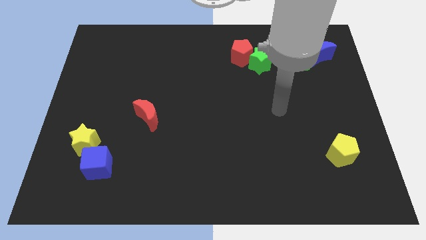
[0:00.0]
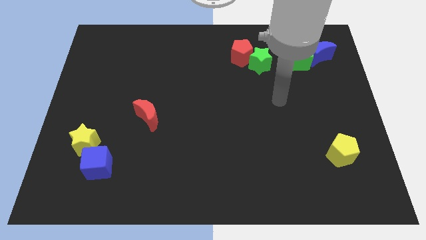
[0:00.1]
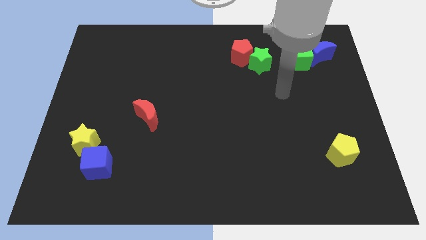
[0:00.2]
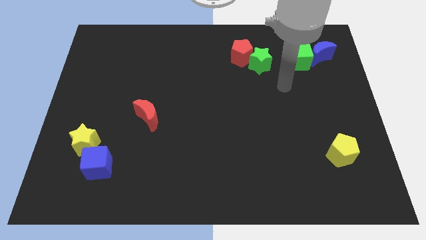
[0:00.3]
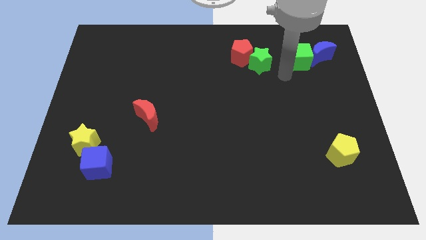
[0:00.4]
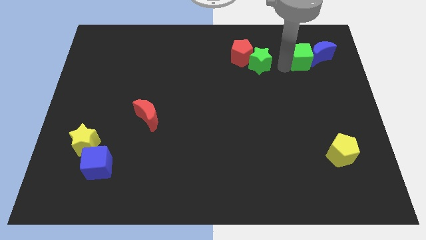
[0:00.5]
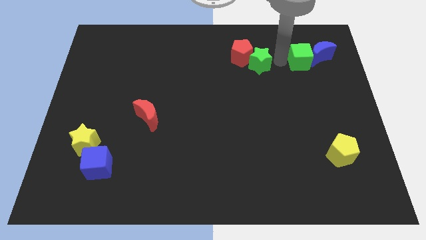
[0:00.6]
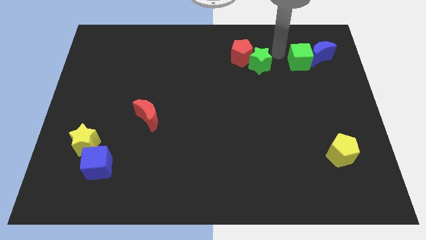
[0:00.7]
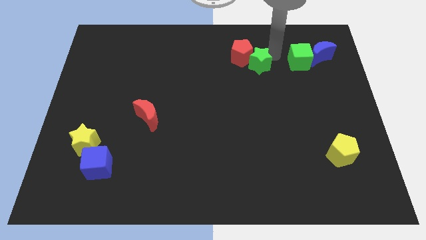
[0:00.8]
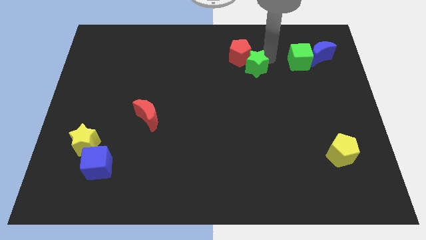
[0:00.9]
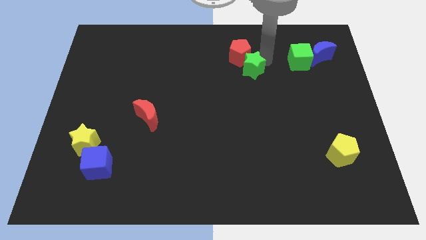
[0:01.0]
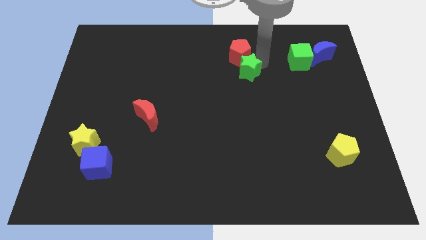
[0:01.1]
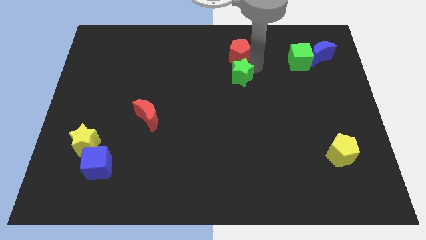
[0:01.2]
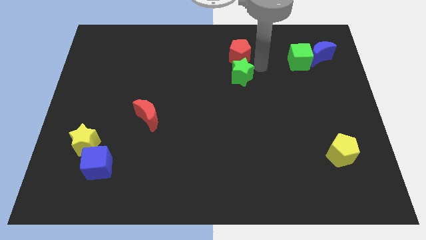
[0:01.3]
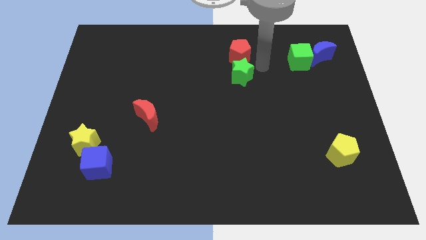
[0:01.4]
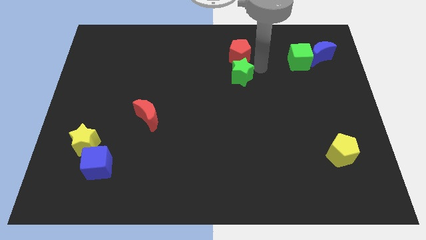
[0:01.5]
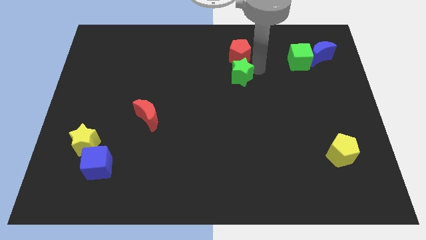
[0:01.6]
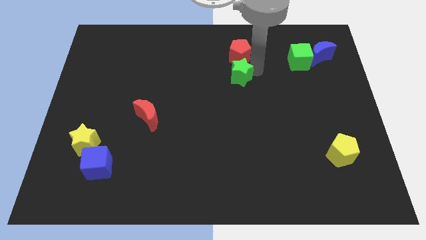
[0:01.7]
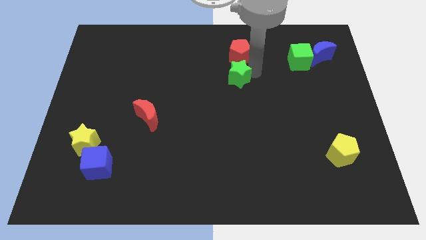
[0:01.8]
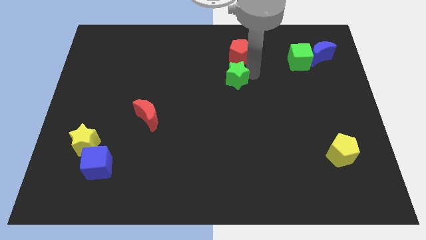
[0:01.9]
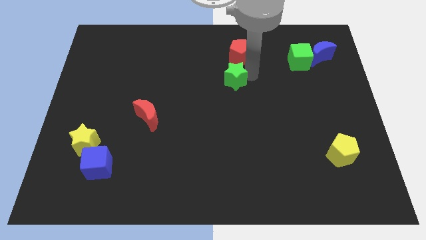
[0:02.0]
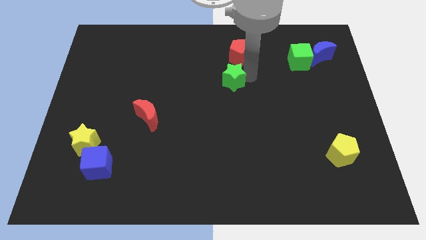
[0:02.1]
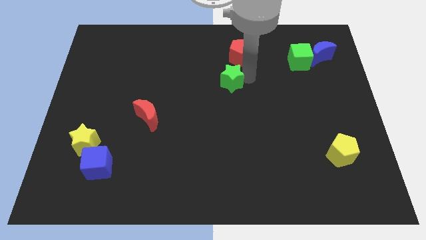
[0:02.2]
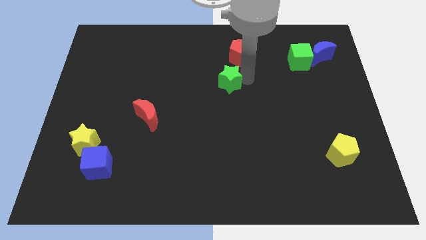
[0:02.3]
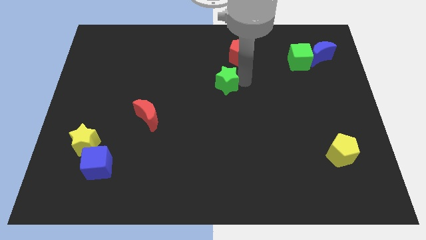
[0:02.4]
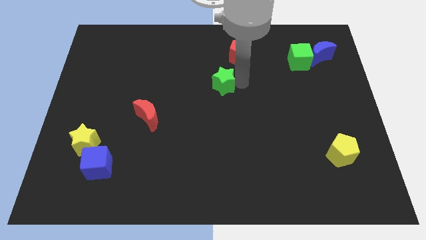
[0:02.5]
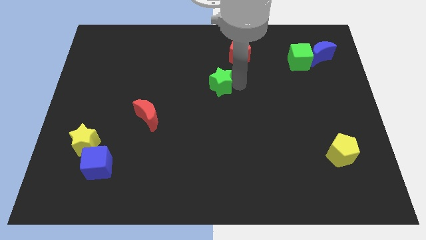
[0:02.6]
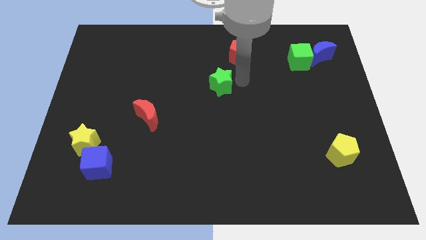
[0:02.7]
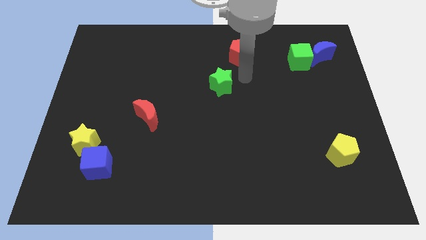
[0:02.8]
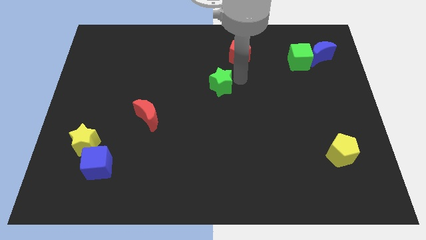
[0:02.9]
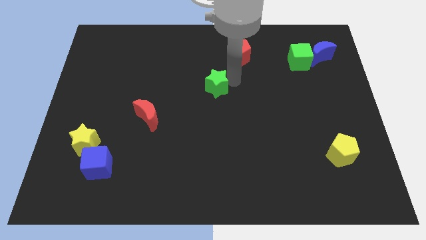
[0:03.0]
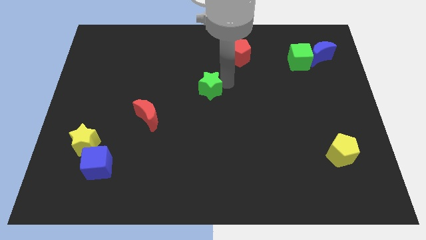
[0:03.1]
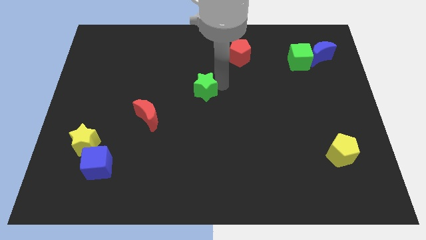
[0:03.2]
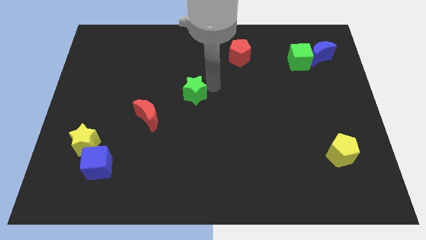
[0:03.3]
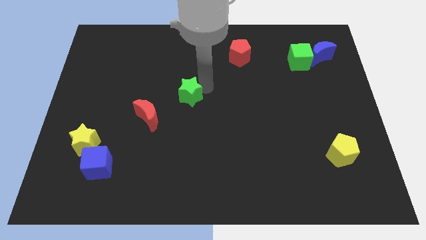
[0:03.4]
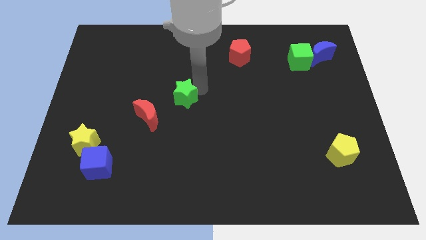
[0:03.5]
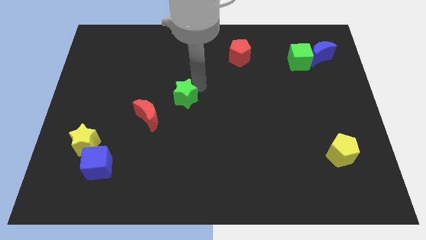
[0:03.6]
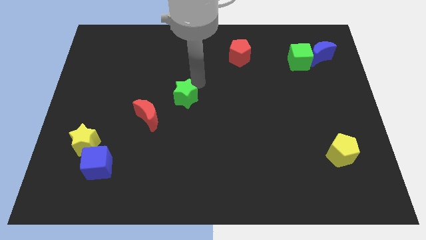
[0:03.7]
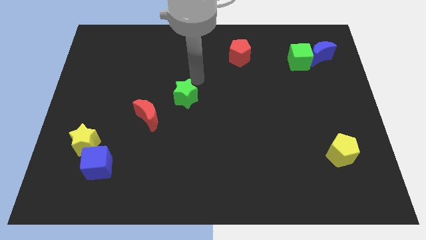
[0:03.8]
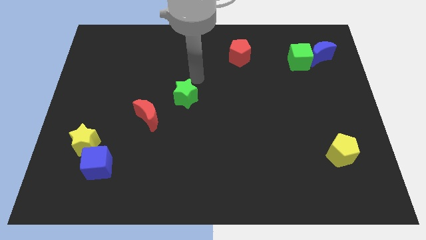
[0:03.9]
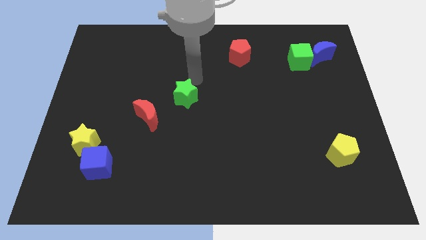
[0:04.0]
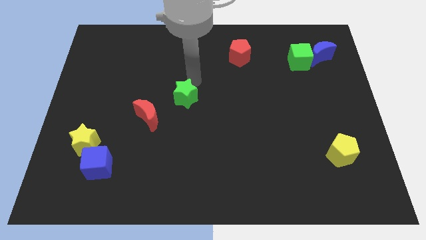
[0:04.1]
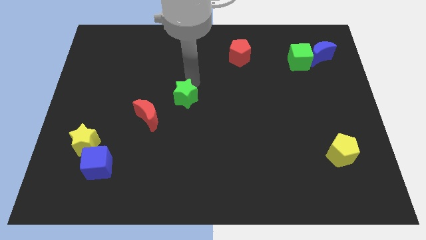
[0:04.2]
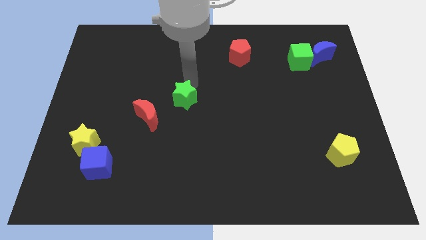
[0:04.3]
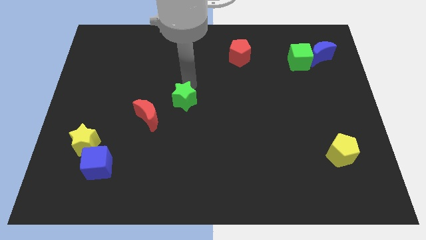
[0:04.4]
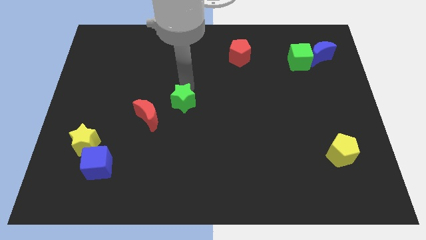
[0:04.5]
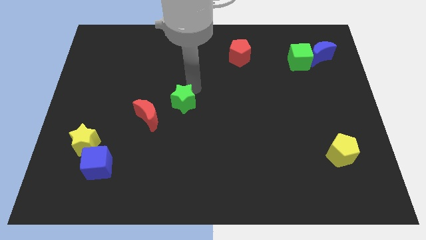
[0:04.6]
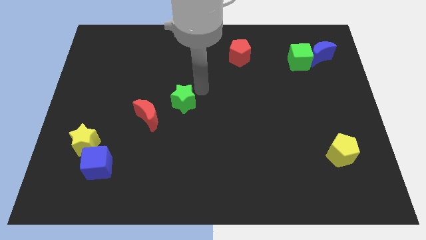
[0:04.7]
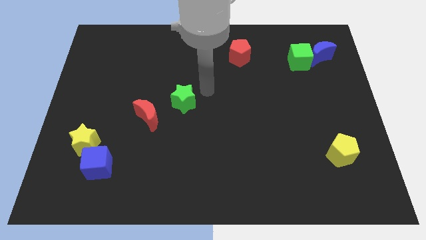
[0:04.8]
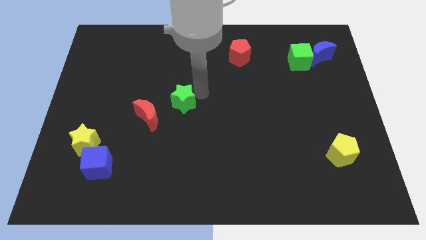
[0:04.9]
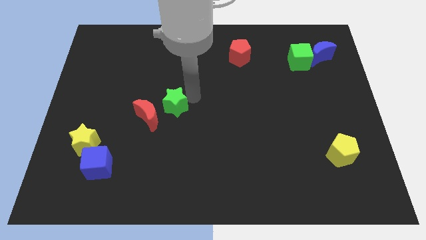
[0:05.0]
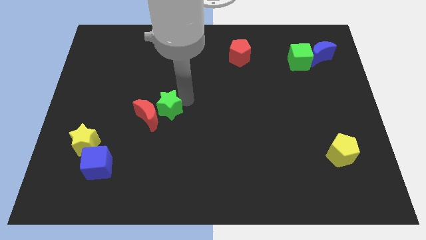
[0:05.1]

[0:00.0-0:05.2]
slide the green star to the red moon

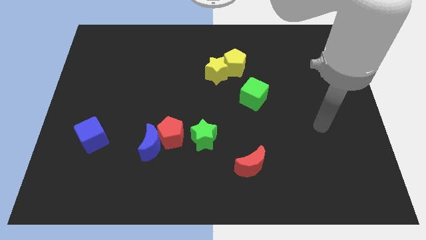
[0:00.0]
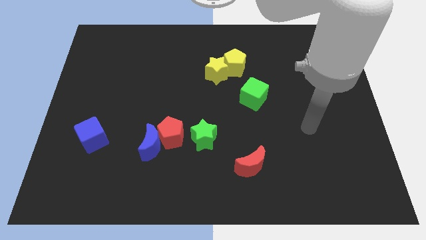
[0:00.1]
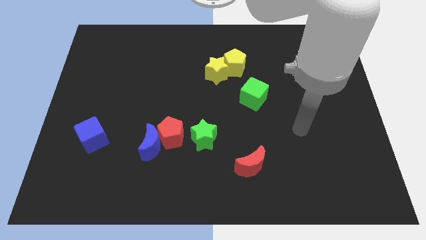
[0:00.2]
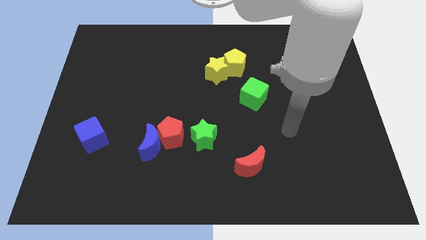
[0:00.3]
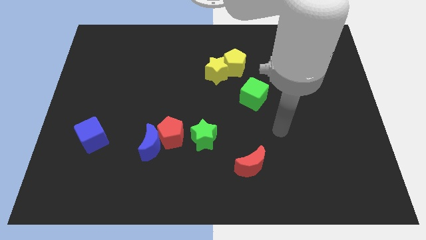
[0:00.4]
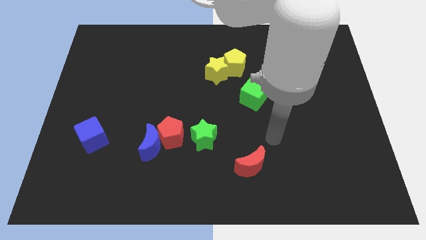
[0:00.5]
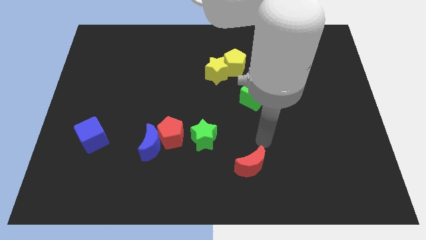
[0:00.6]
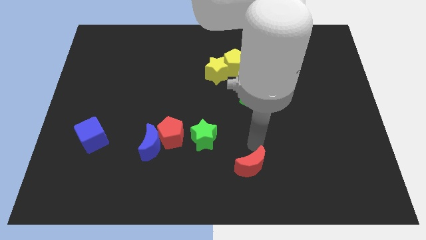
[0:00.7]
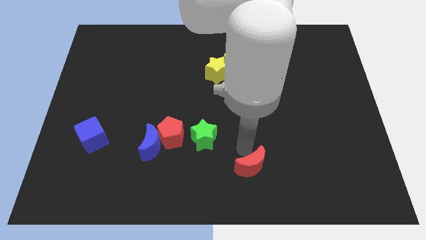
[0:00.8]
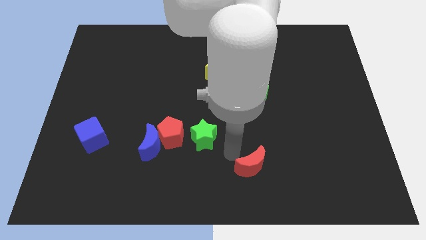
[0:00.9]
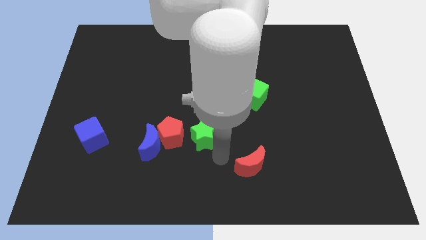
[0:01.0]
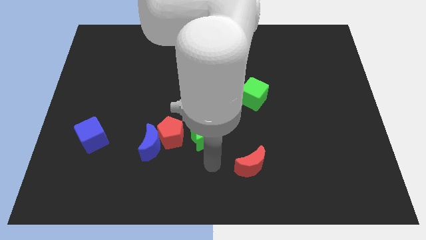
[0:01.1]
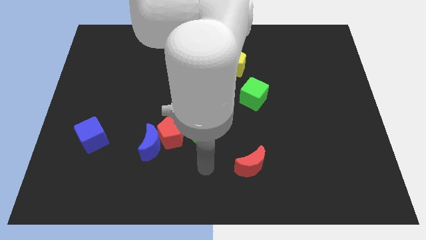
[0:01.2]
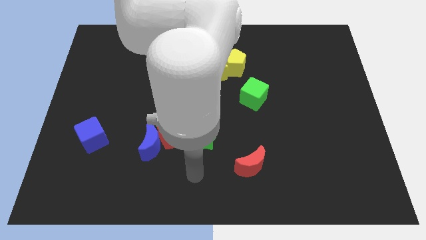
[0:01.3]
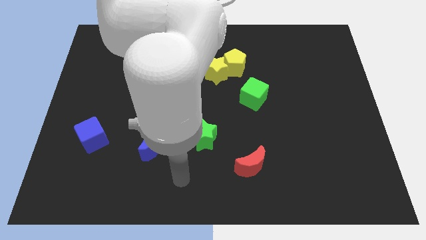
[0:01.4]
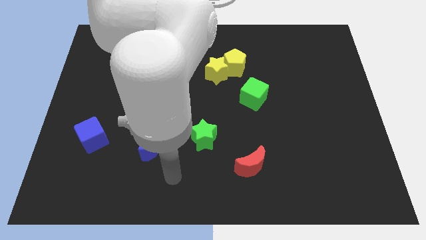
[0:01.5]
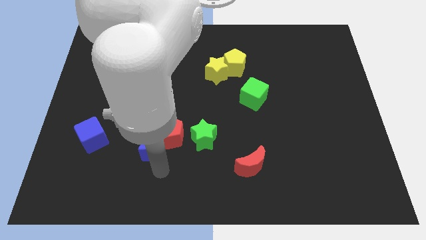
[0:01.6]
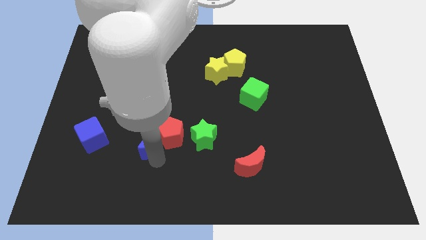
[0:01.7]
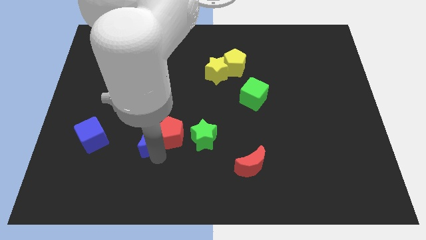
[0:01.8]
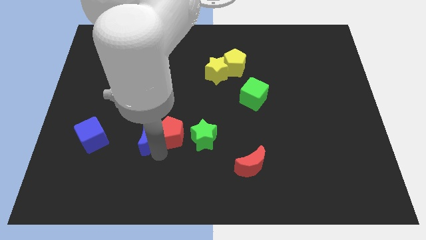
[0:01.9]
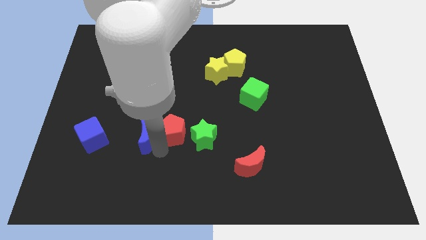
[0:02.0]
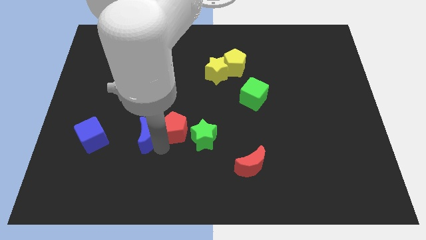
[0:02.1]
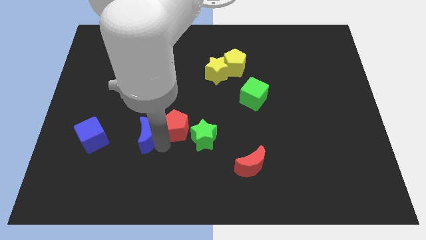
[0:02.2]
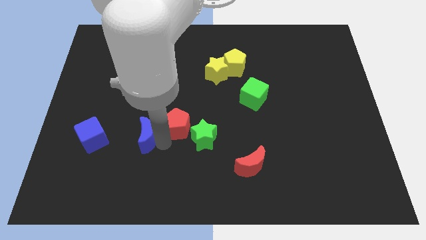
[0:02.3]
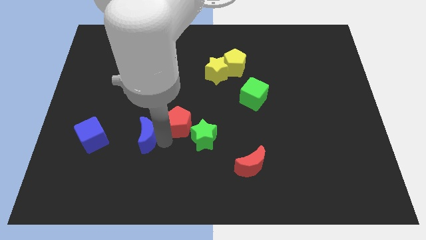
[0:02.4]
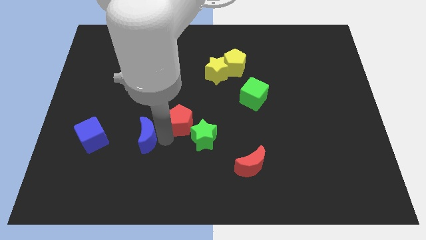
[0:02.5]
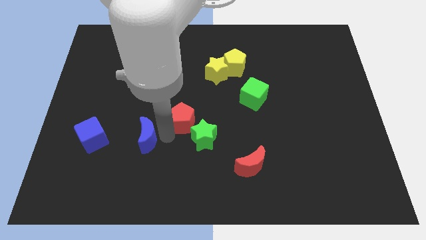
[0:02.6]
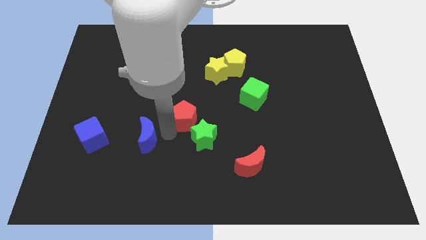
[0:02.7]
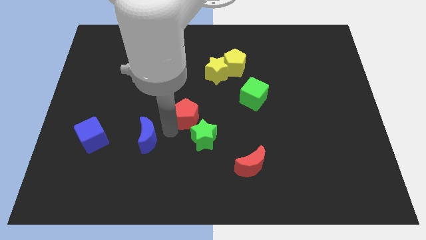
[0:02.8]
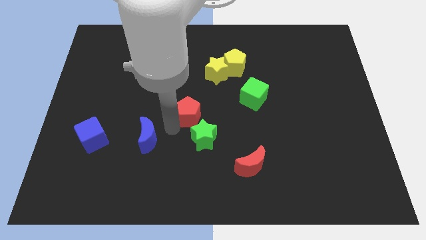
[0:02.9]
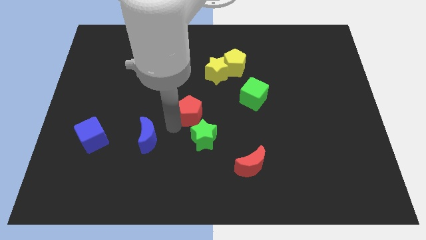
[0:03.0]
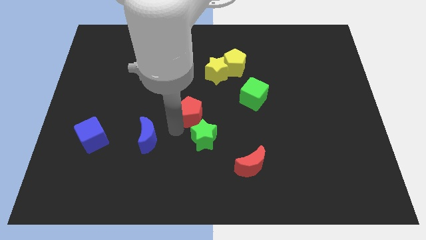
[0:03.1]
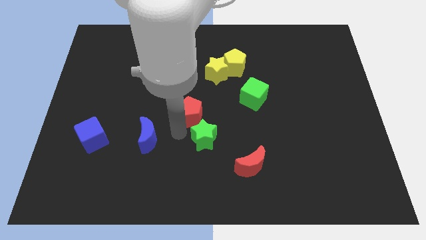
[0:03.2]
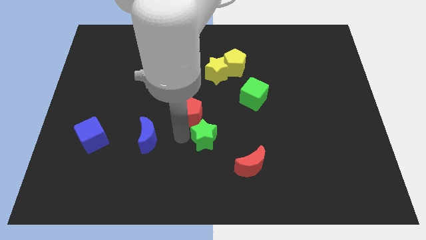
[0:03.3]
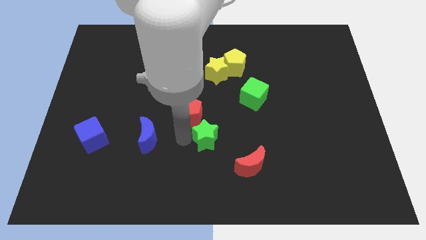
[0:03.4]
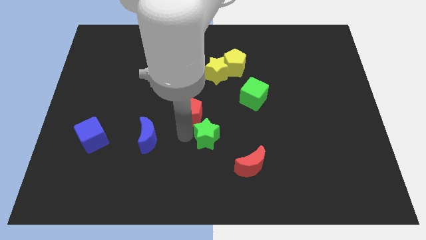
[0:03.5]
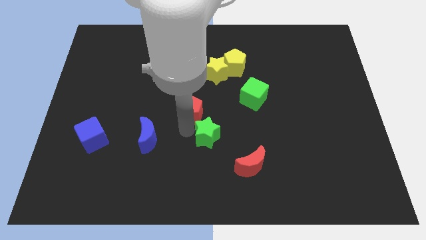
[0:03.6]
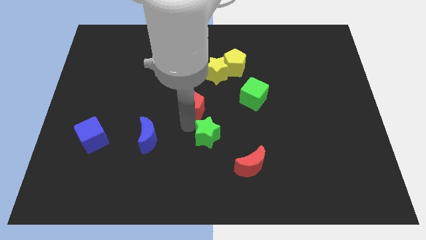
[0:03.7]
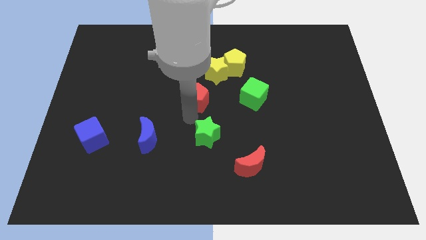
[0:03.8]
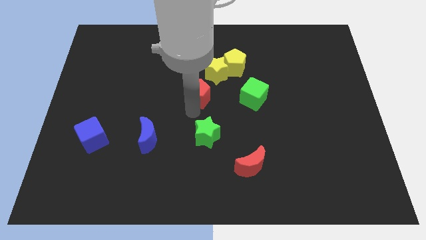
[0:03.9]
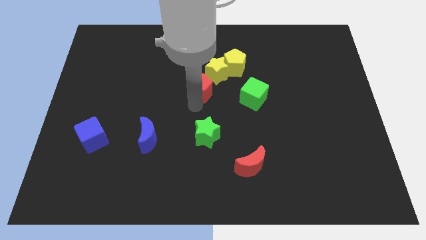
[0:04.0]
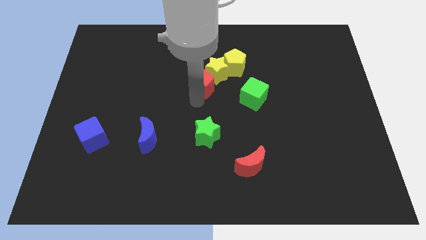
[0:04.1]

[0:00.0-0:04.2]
move the red pentagon to the yellow star
